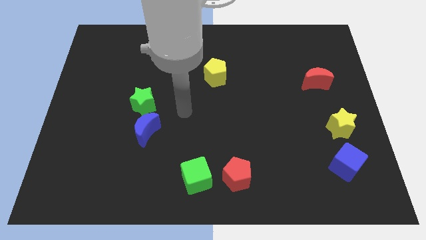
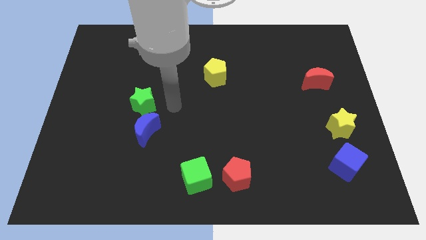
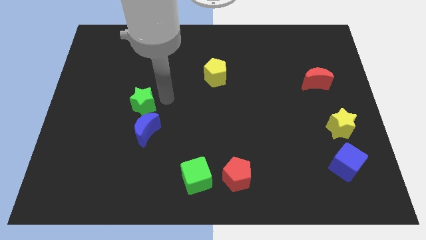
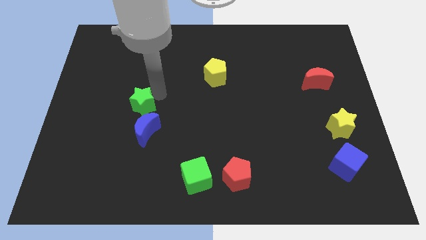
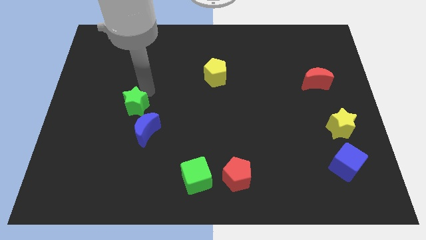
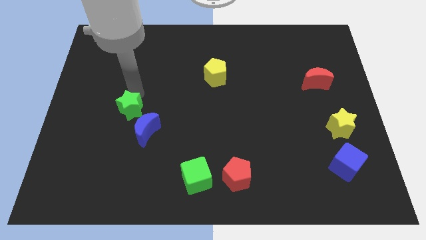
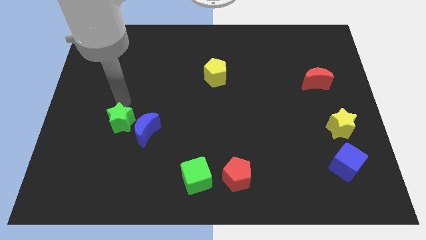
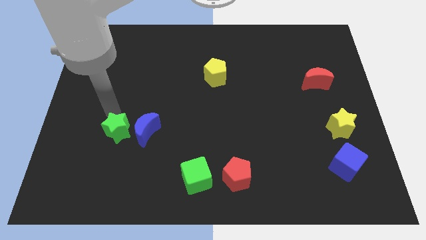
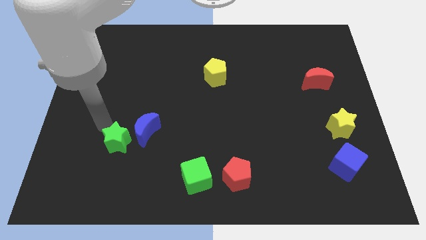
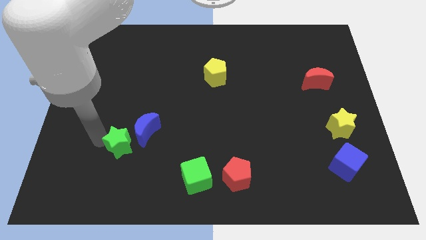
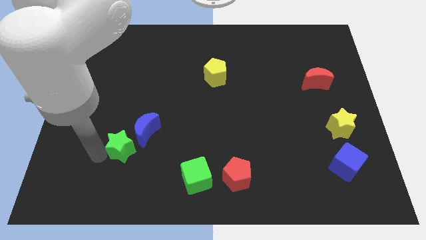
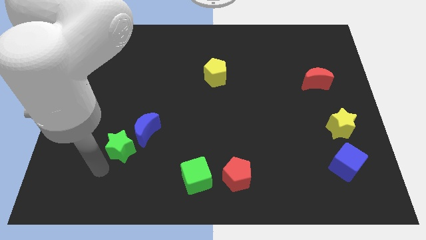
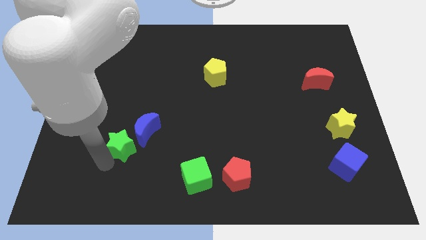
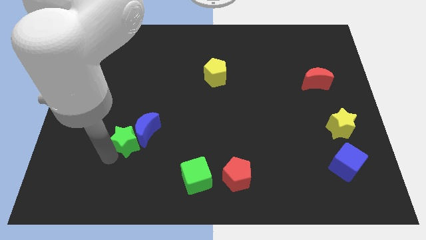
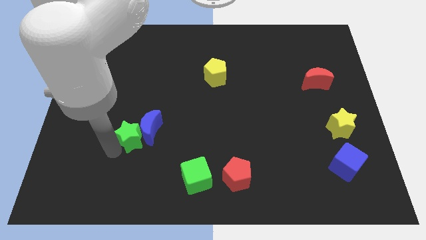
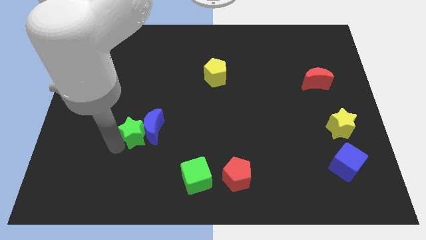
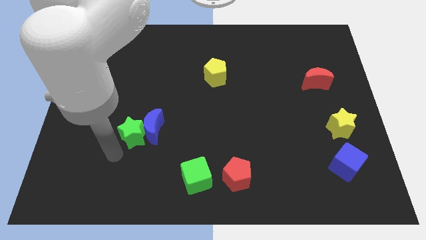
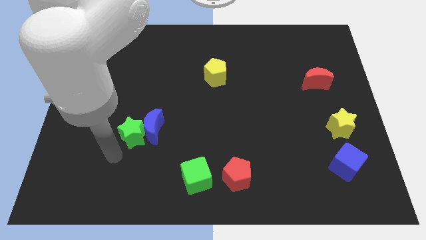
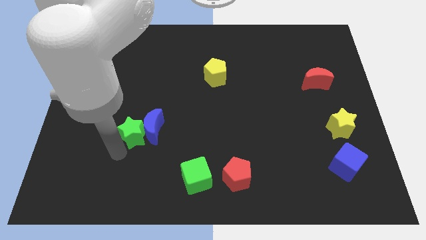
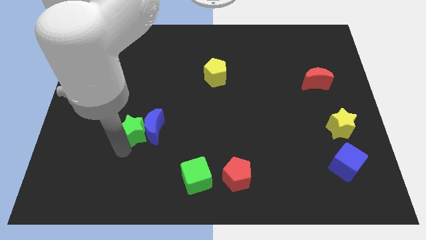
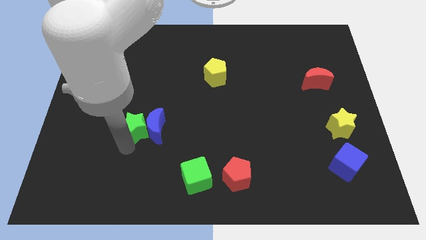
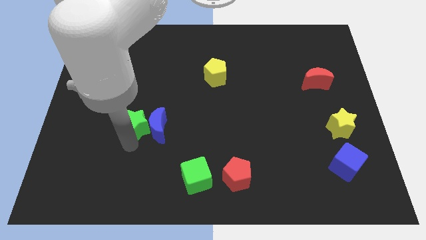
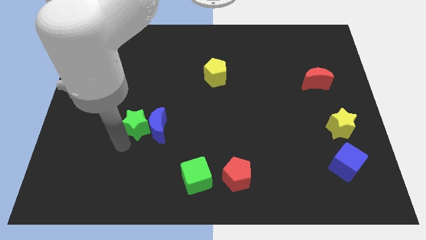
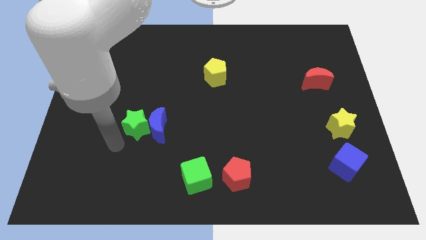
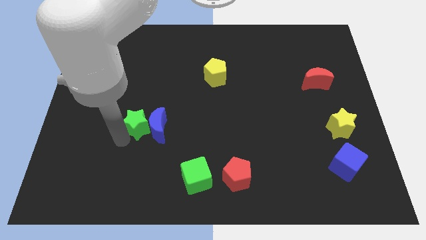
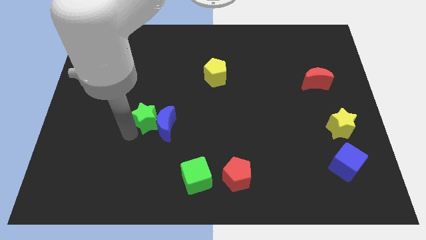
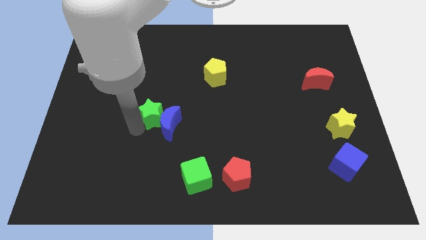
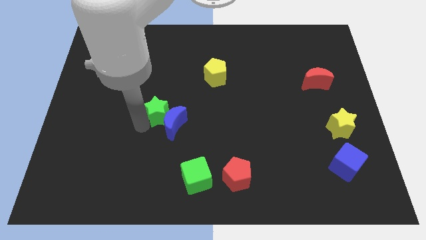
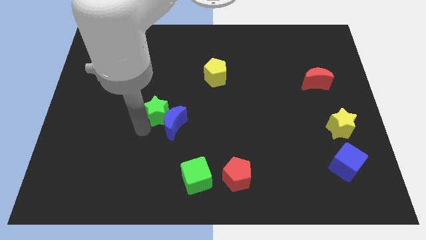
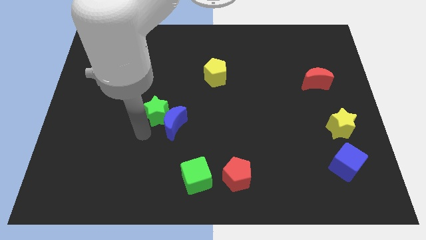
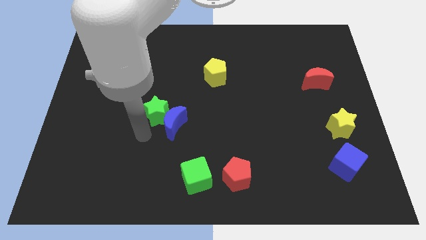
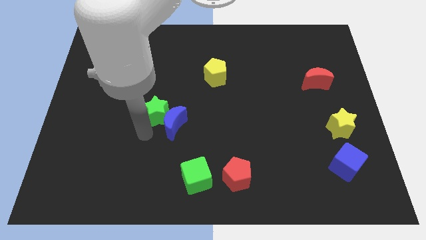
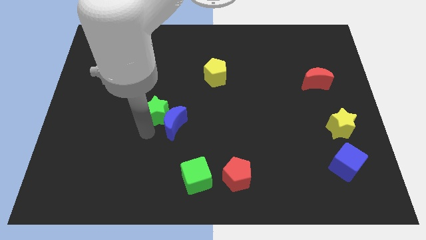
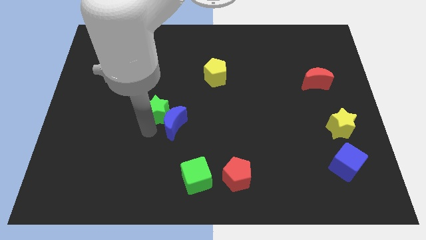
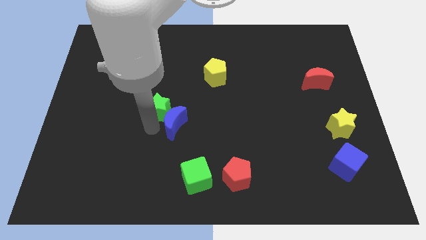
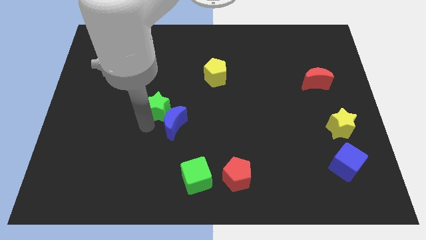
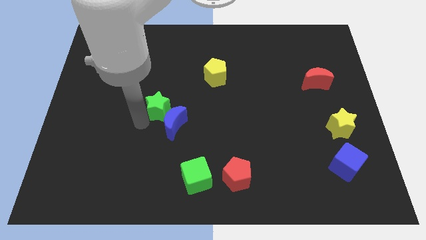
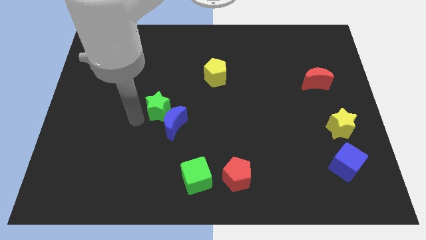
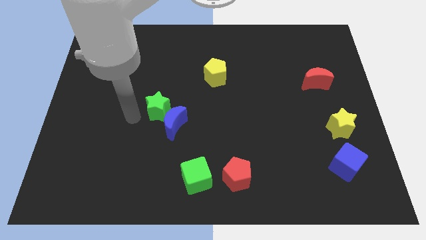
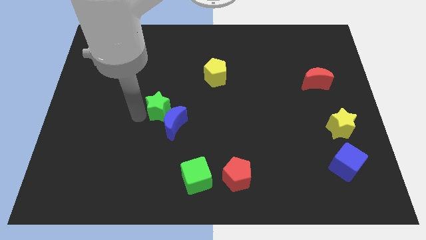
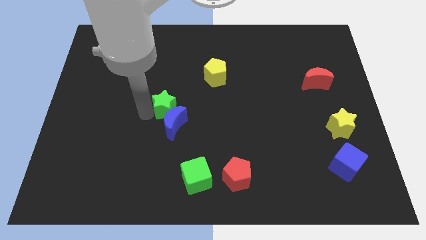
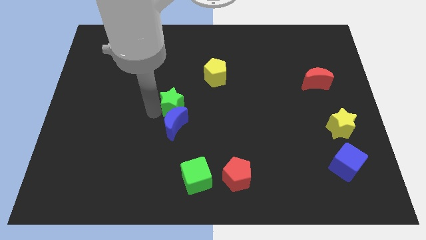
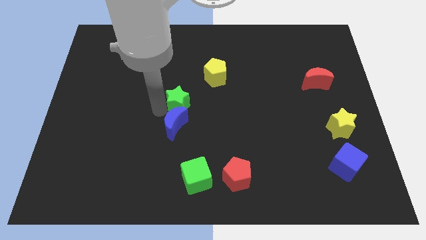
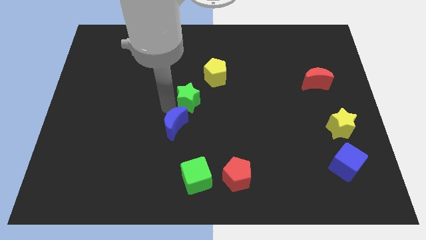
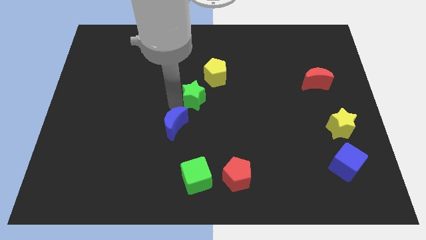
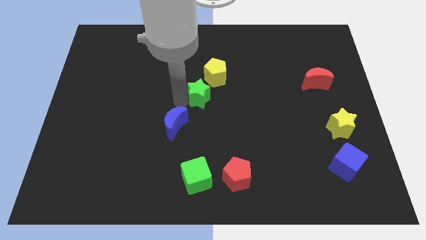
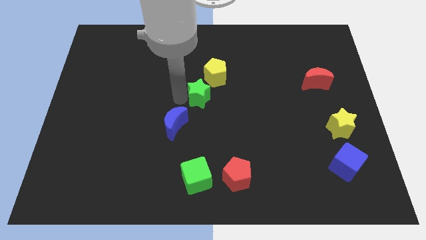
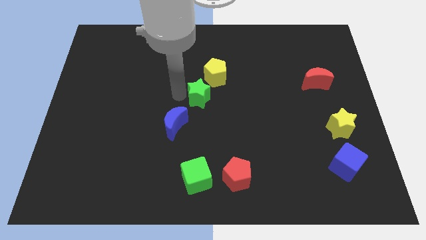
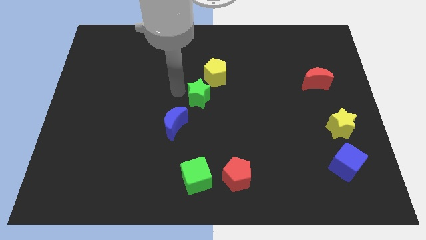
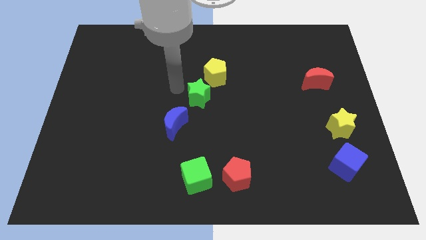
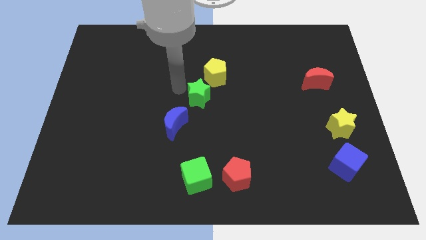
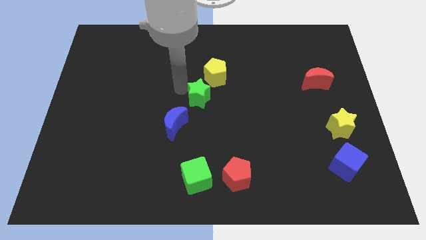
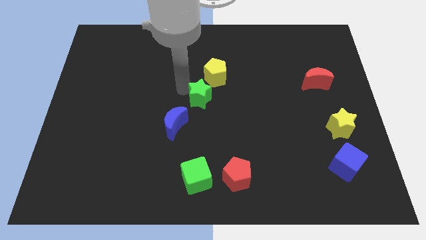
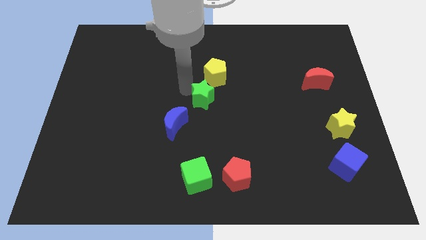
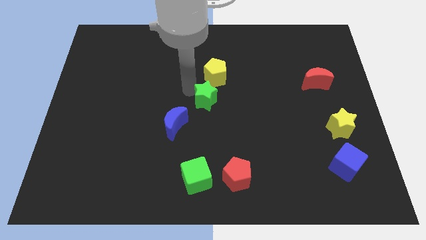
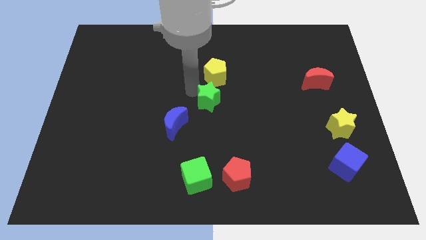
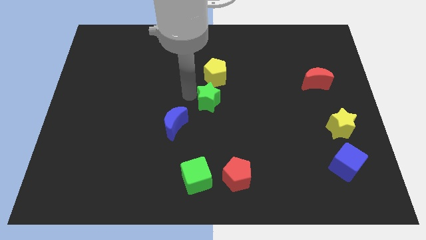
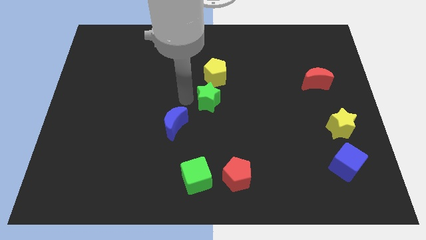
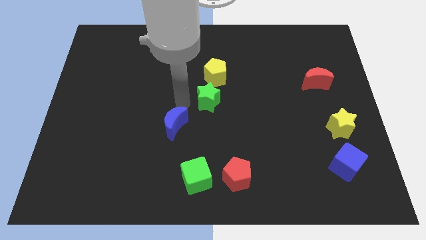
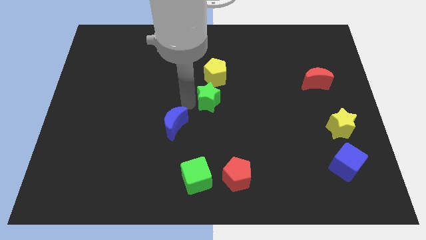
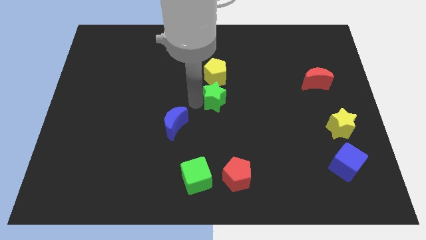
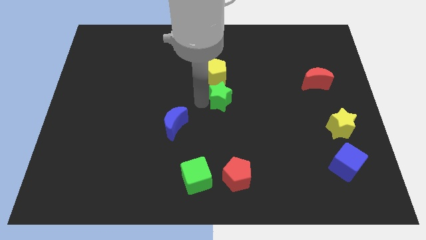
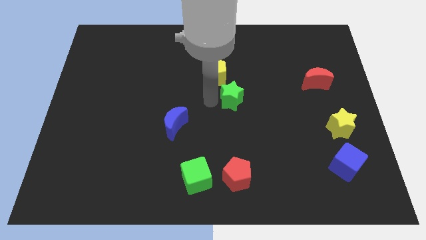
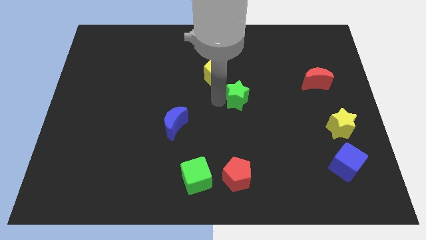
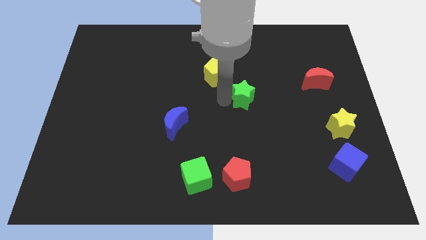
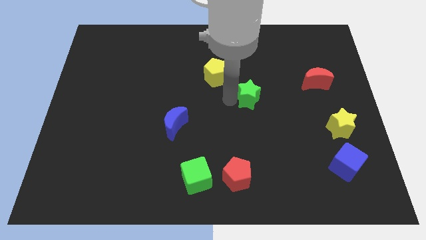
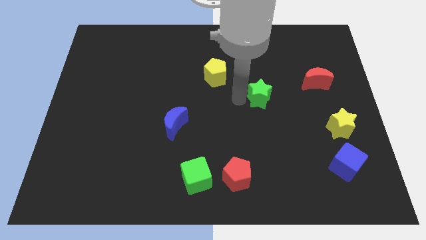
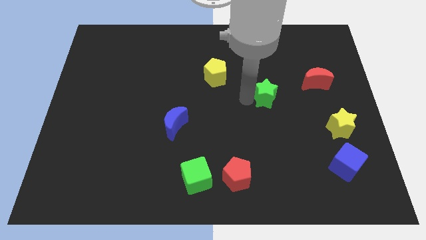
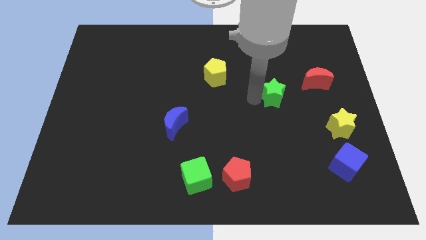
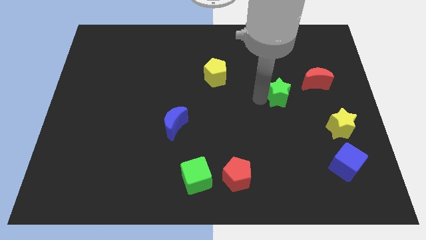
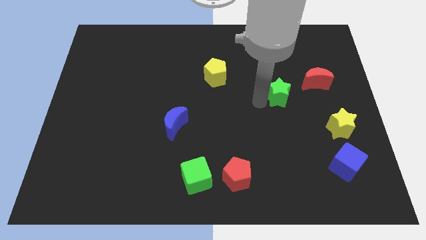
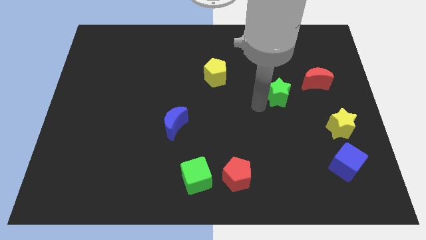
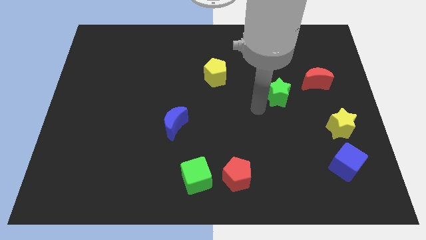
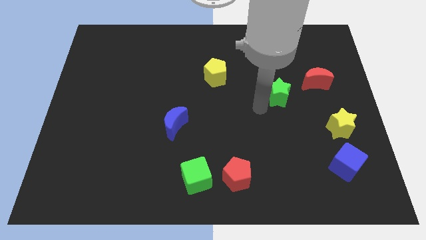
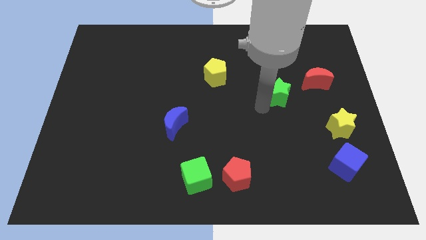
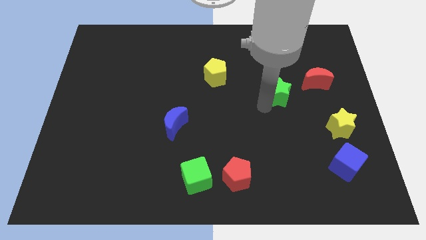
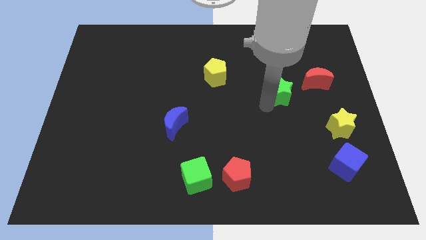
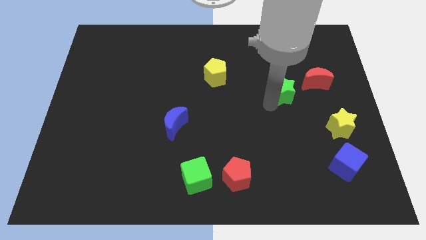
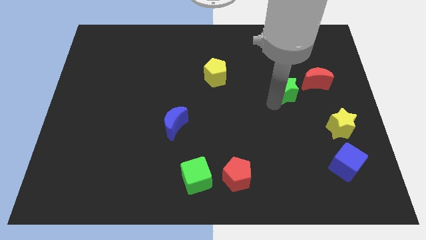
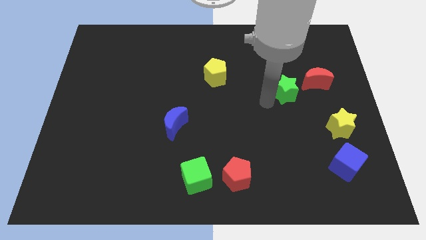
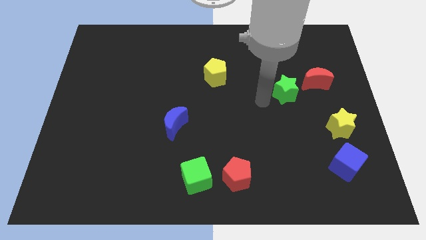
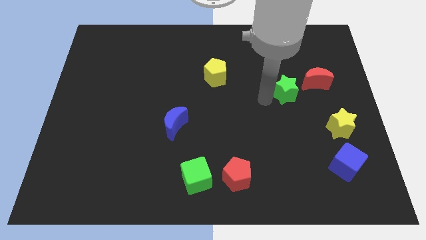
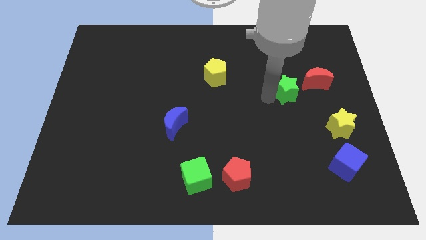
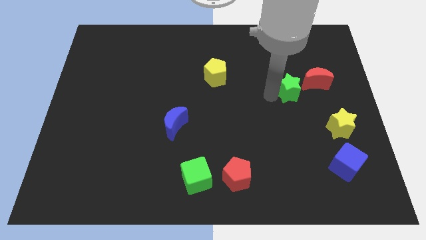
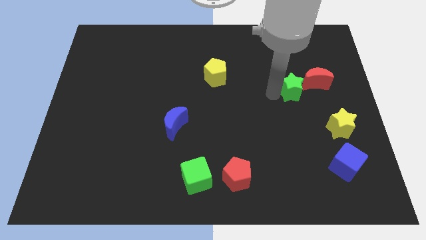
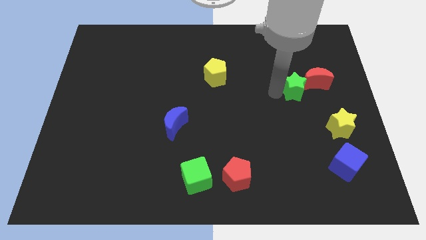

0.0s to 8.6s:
put the green star towards the red moon
